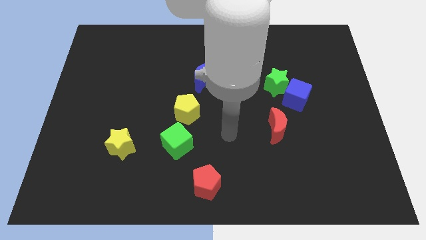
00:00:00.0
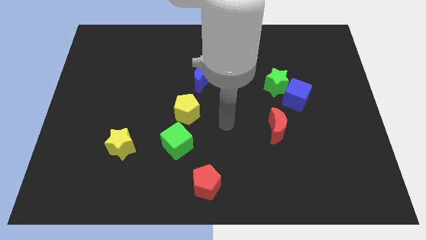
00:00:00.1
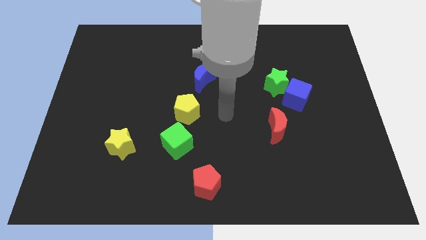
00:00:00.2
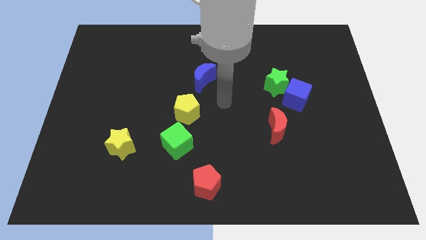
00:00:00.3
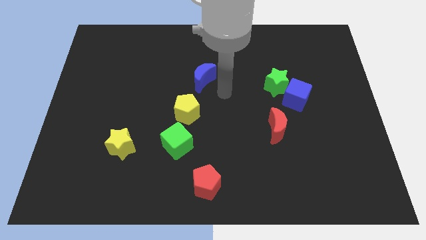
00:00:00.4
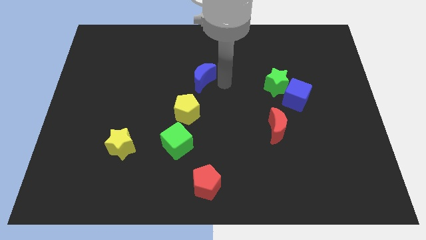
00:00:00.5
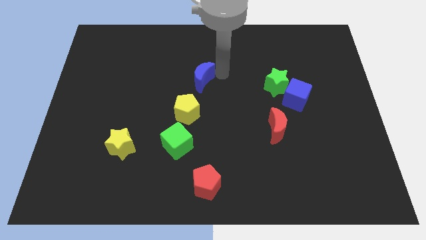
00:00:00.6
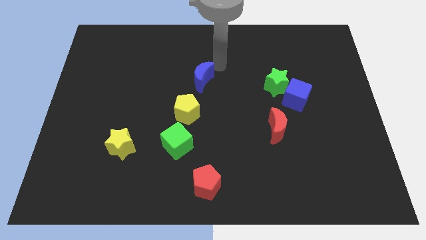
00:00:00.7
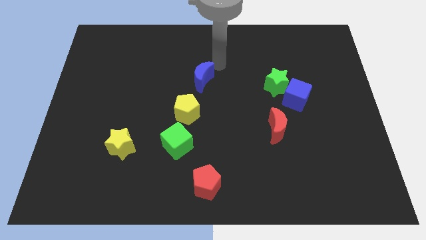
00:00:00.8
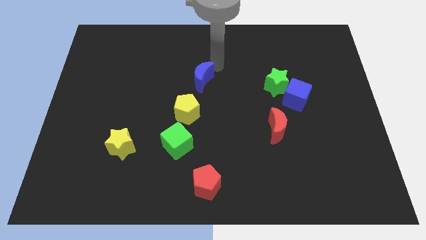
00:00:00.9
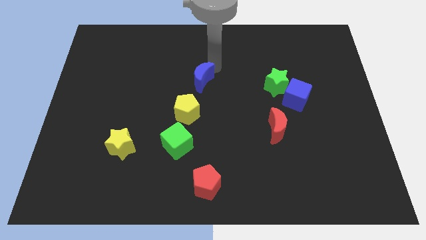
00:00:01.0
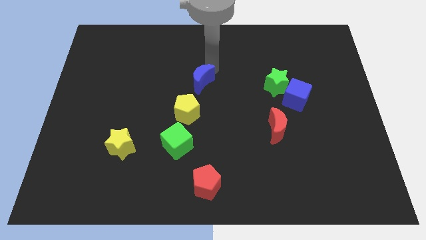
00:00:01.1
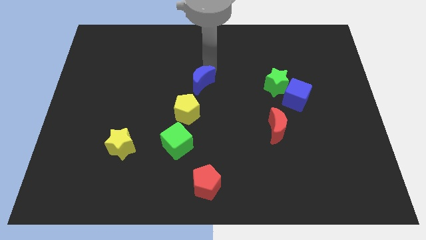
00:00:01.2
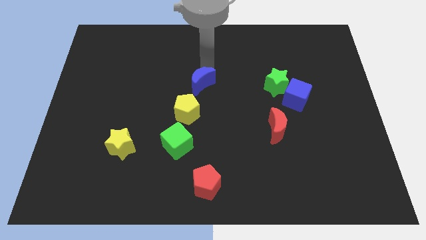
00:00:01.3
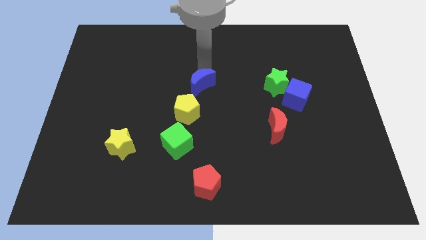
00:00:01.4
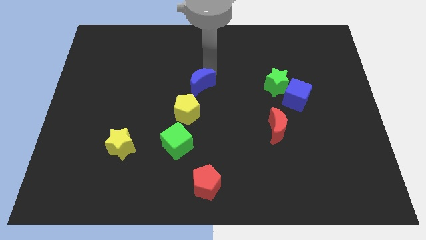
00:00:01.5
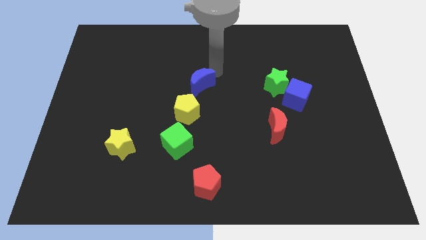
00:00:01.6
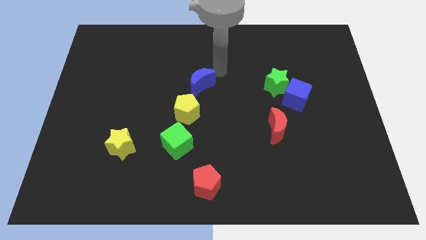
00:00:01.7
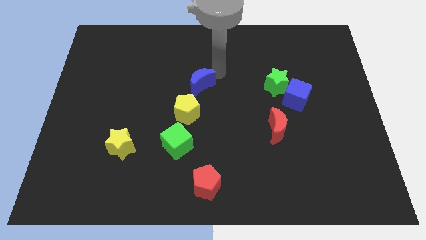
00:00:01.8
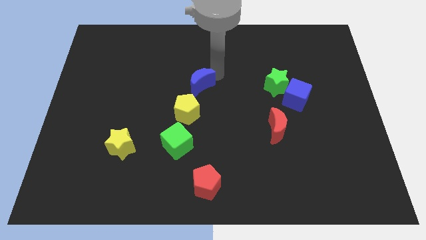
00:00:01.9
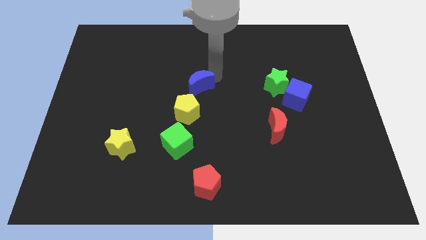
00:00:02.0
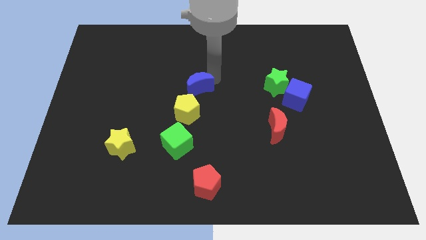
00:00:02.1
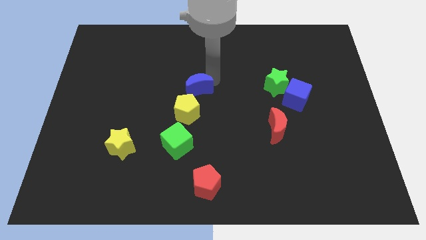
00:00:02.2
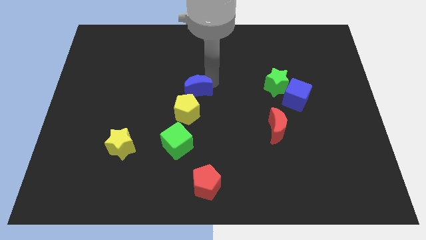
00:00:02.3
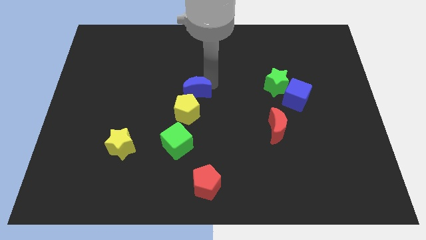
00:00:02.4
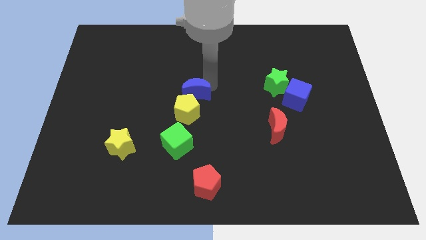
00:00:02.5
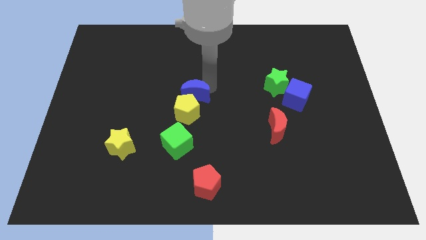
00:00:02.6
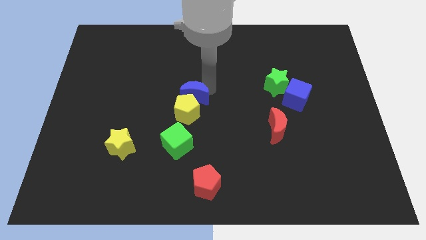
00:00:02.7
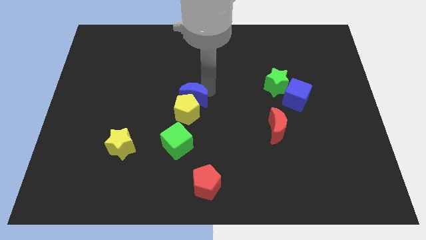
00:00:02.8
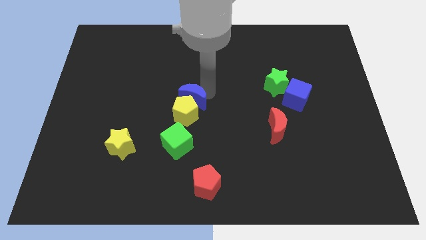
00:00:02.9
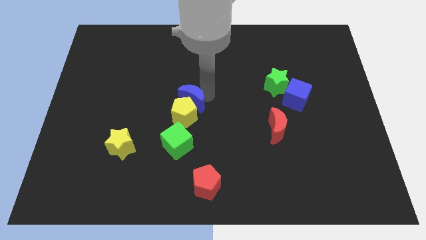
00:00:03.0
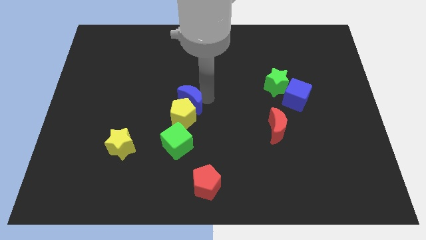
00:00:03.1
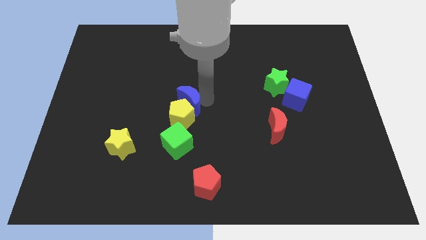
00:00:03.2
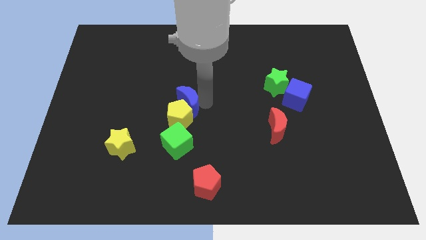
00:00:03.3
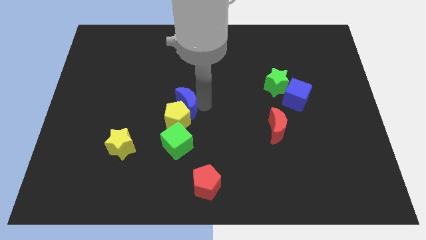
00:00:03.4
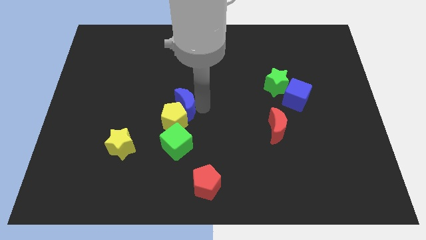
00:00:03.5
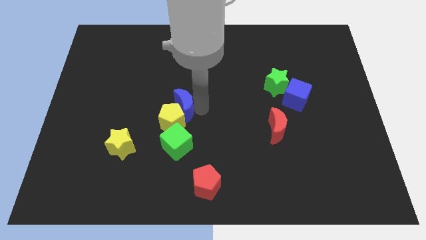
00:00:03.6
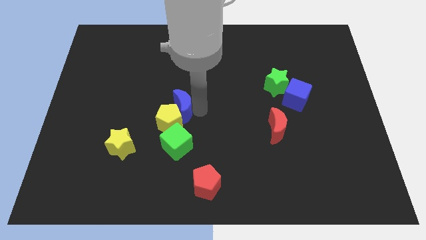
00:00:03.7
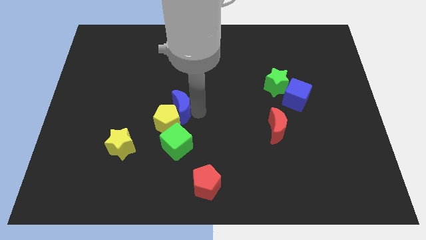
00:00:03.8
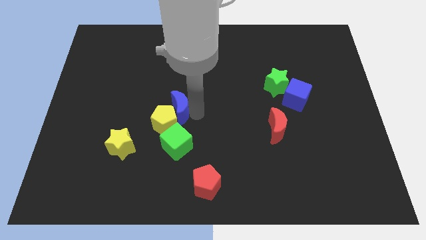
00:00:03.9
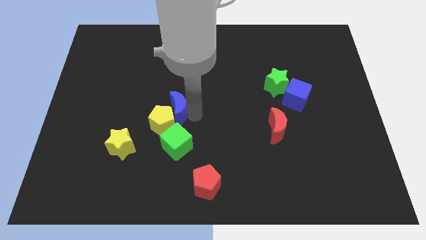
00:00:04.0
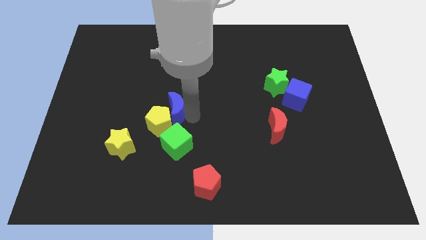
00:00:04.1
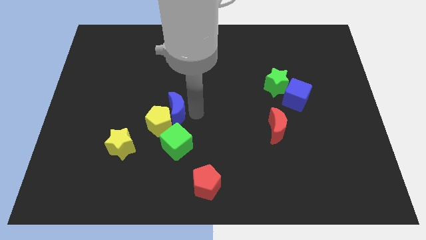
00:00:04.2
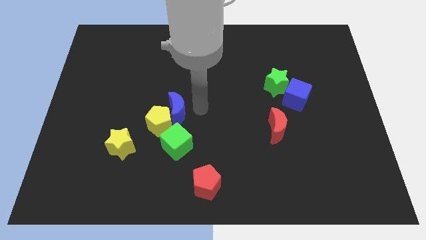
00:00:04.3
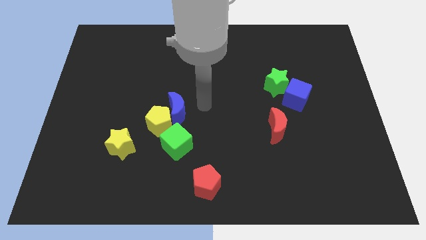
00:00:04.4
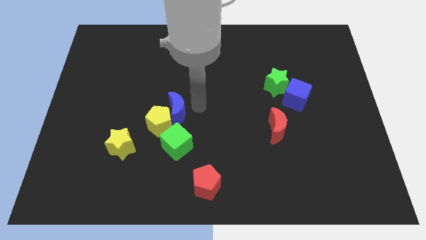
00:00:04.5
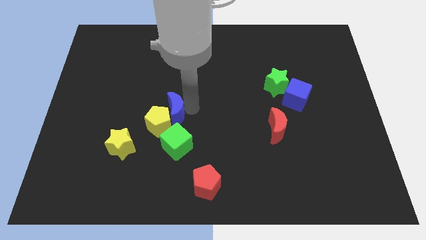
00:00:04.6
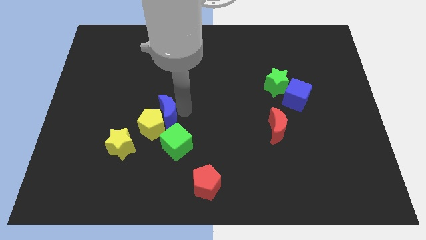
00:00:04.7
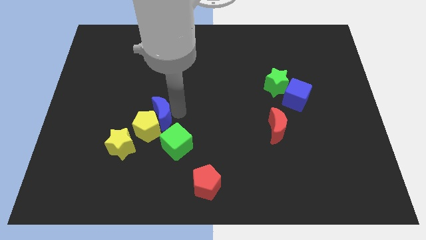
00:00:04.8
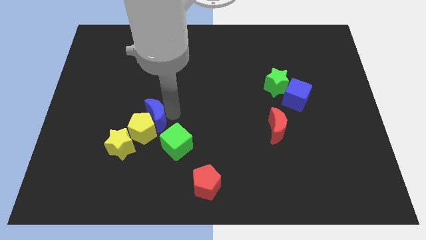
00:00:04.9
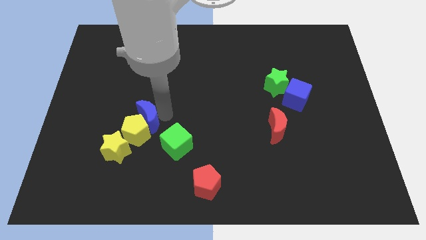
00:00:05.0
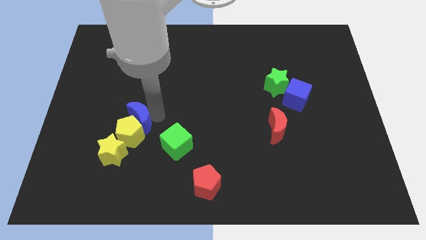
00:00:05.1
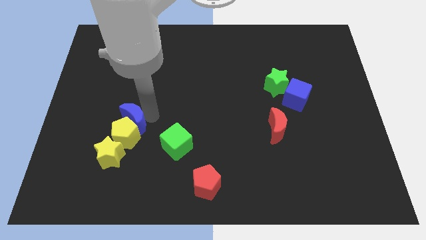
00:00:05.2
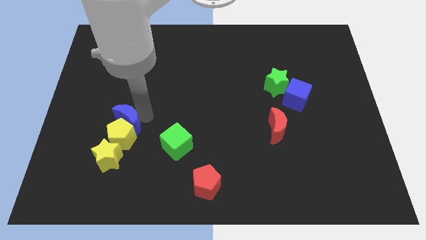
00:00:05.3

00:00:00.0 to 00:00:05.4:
slide the blue moon down and to the left diagonally

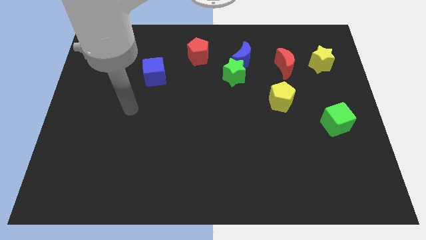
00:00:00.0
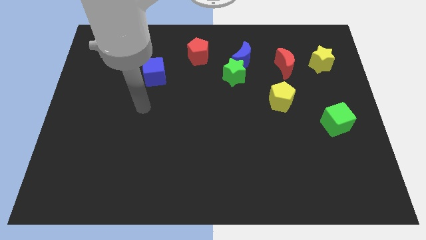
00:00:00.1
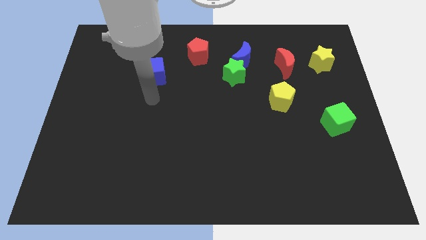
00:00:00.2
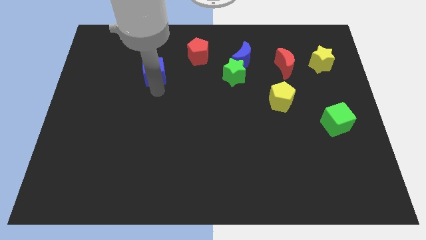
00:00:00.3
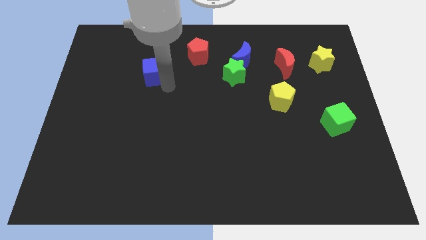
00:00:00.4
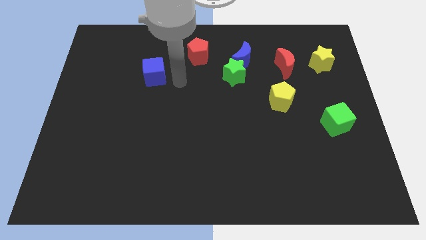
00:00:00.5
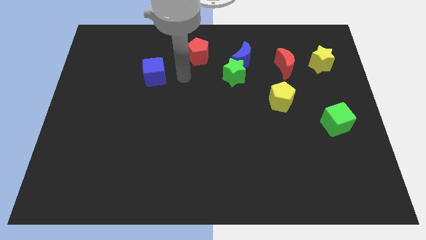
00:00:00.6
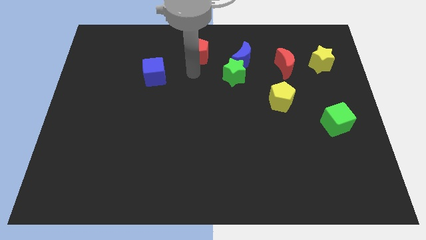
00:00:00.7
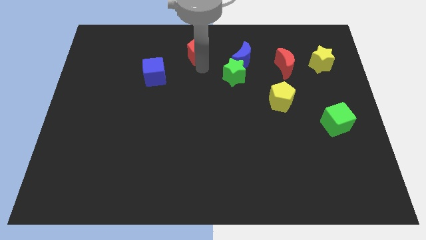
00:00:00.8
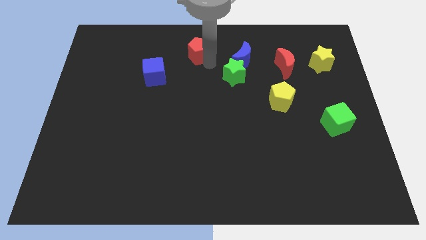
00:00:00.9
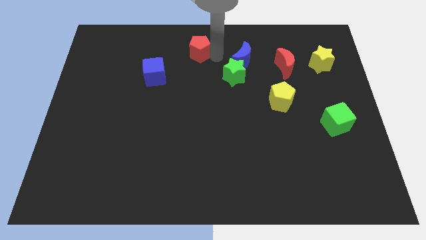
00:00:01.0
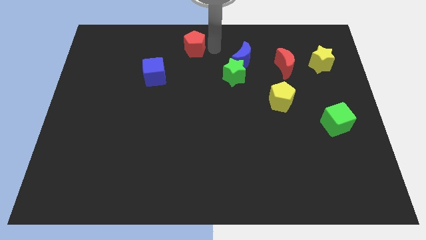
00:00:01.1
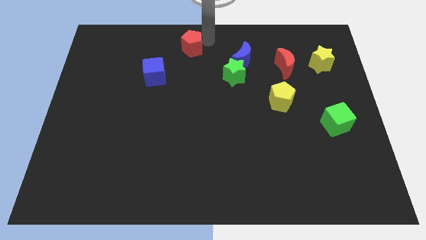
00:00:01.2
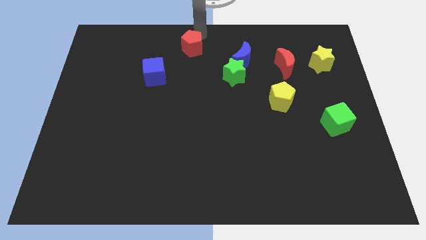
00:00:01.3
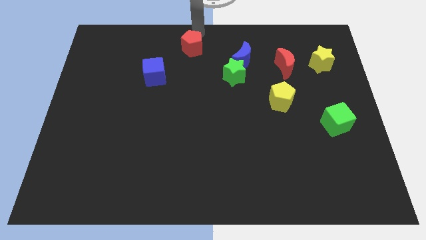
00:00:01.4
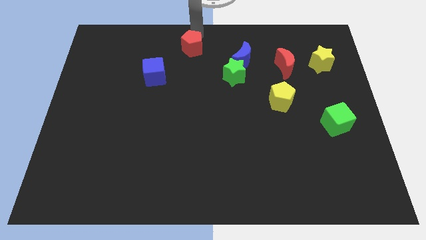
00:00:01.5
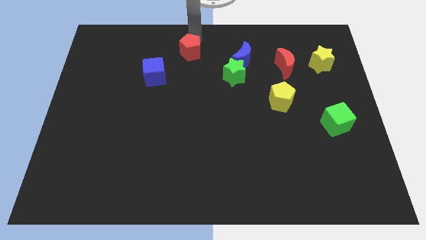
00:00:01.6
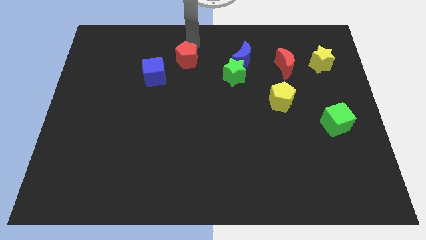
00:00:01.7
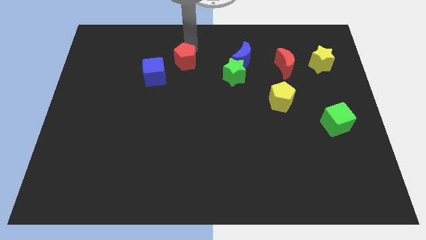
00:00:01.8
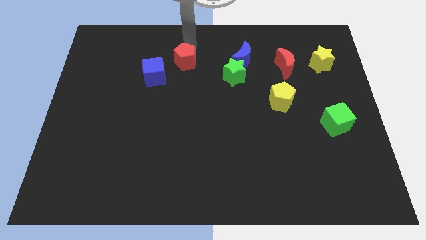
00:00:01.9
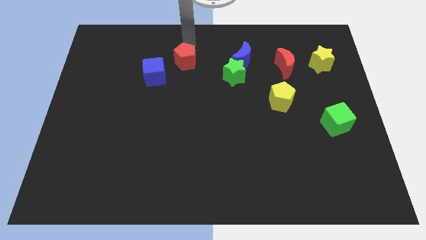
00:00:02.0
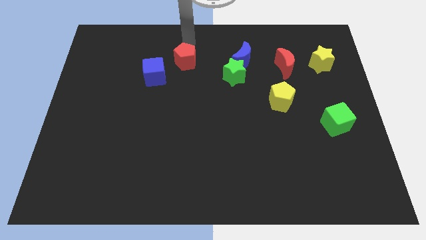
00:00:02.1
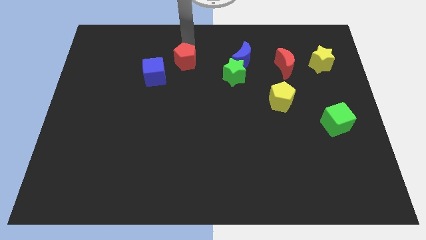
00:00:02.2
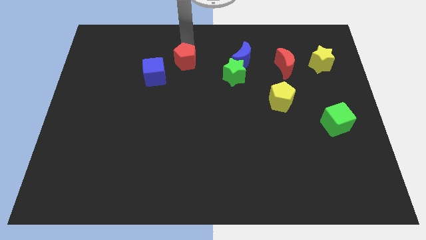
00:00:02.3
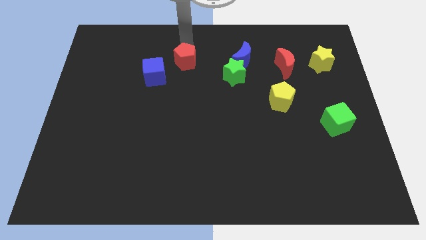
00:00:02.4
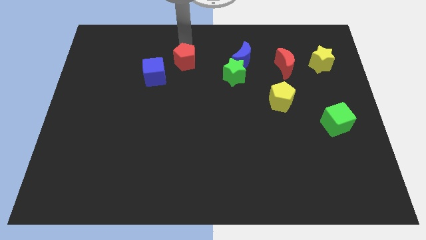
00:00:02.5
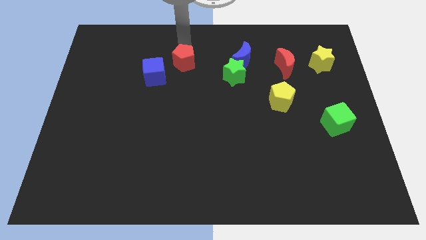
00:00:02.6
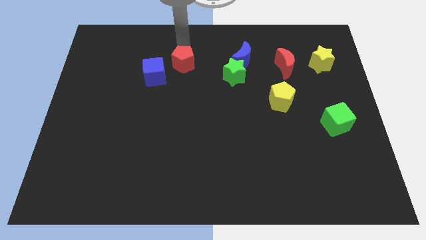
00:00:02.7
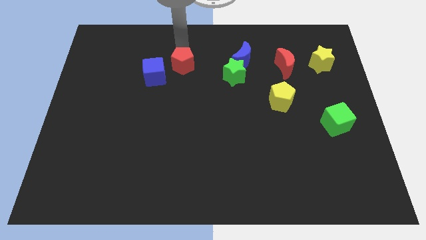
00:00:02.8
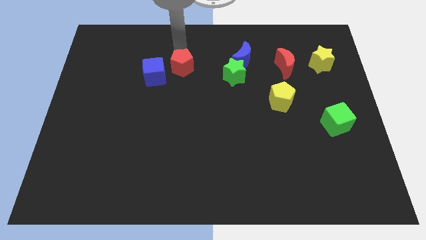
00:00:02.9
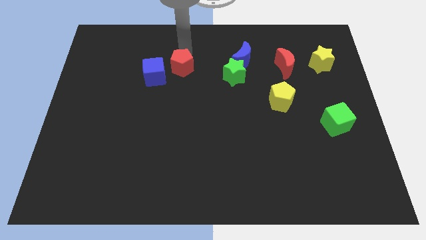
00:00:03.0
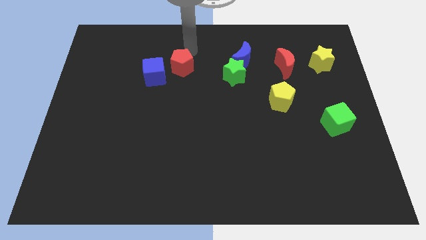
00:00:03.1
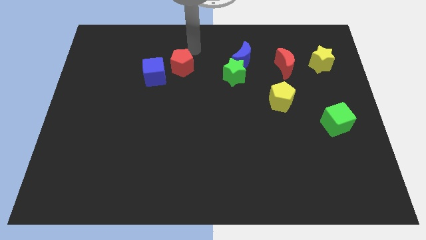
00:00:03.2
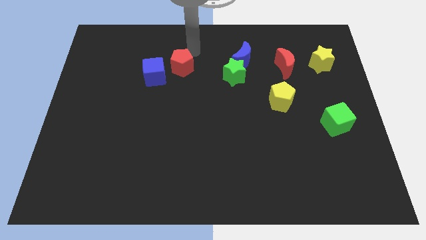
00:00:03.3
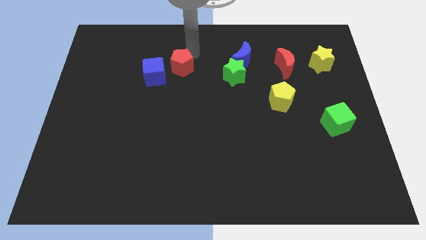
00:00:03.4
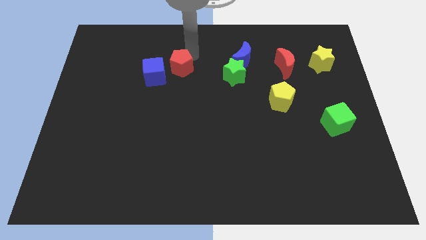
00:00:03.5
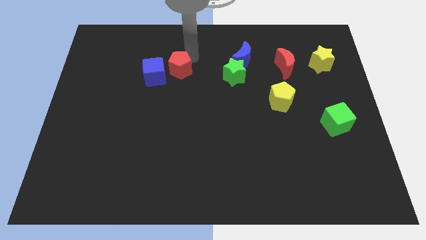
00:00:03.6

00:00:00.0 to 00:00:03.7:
slide the red pentagon a bit downwards and to the left diagonally
